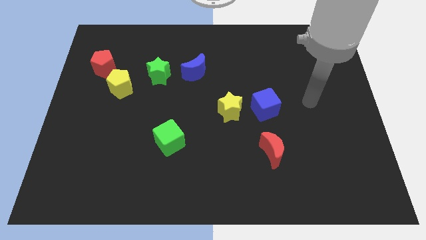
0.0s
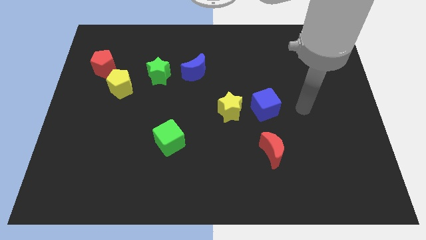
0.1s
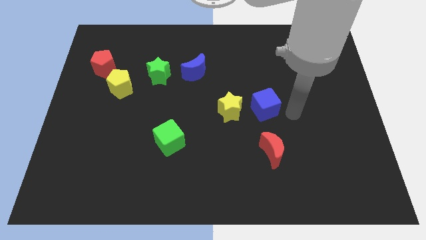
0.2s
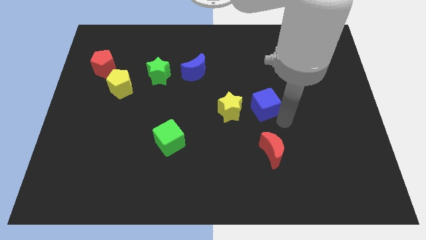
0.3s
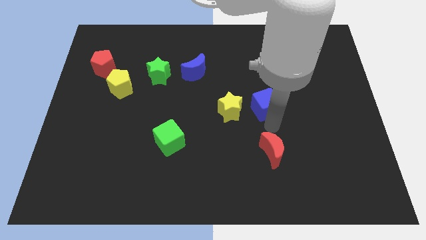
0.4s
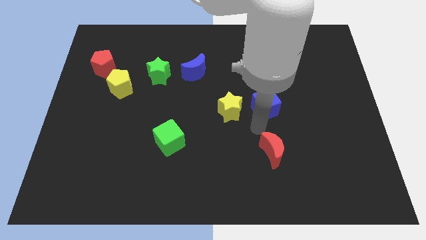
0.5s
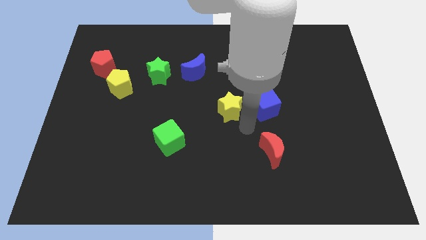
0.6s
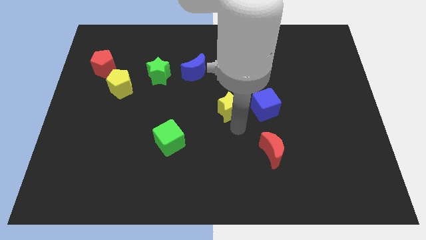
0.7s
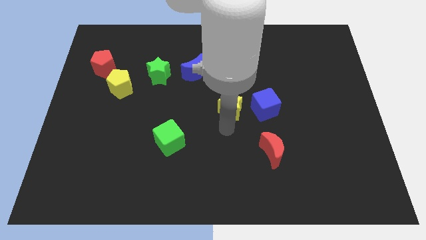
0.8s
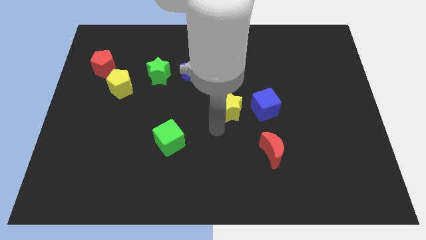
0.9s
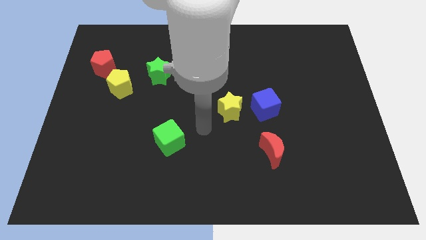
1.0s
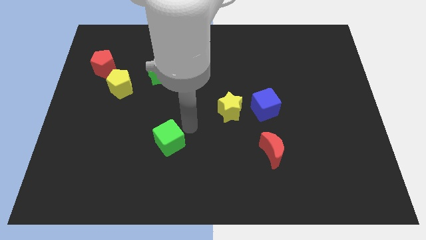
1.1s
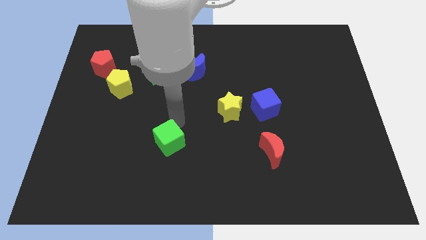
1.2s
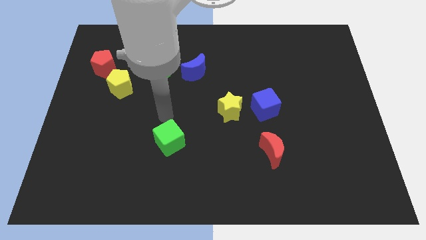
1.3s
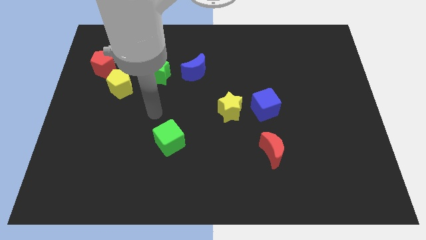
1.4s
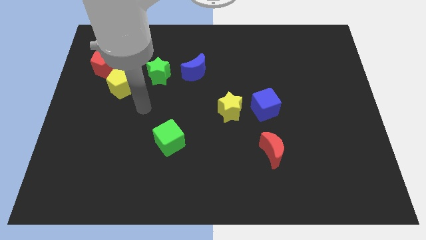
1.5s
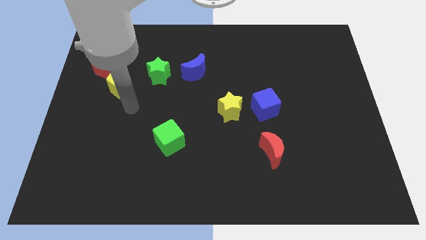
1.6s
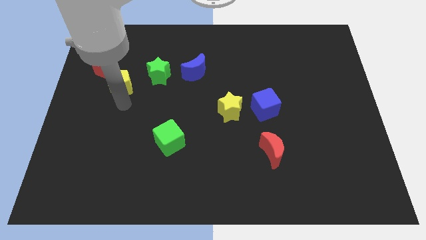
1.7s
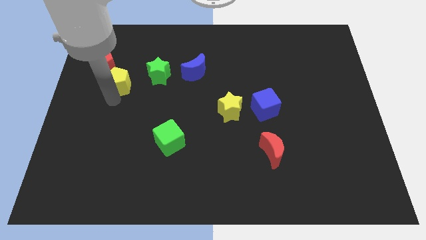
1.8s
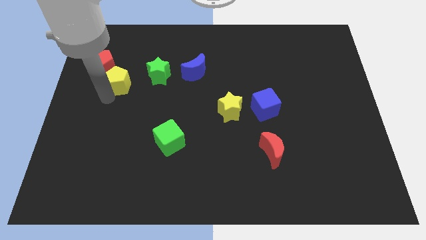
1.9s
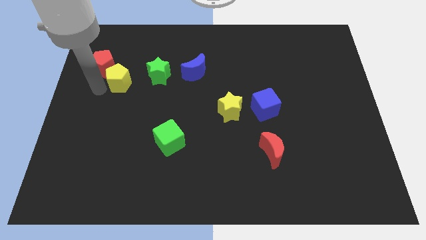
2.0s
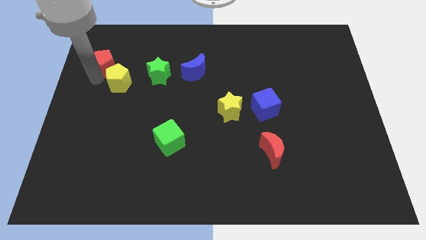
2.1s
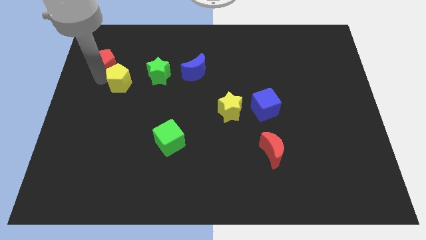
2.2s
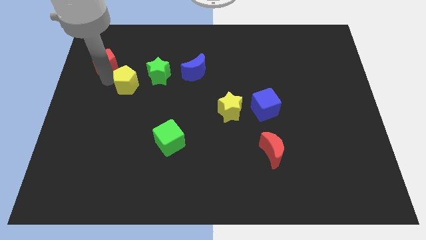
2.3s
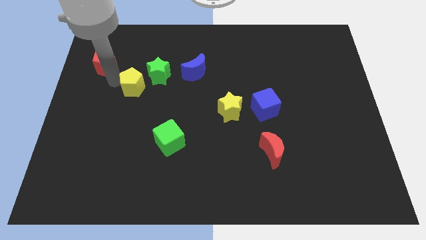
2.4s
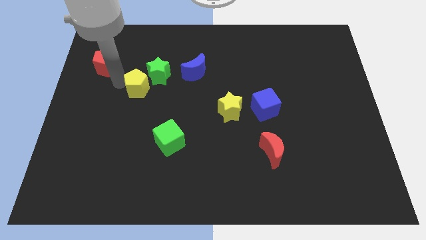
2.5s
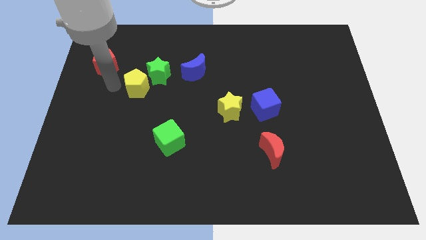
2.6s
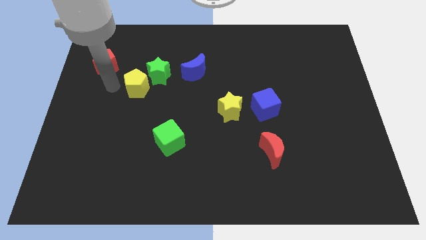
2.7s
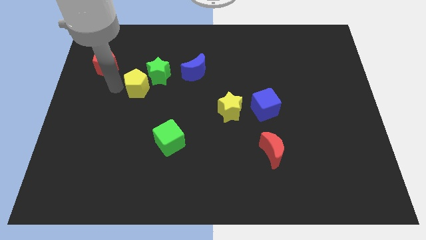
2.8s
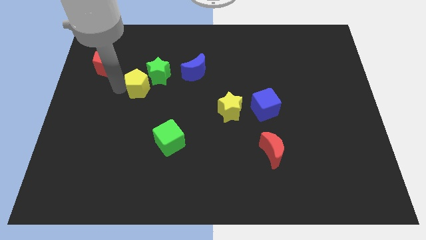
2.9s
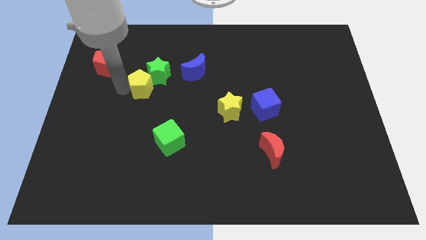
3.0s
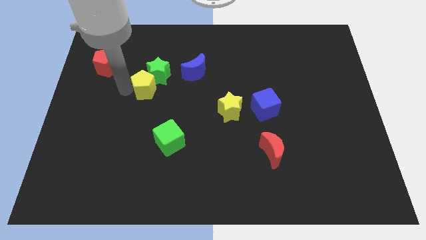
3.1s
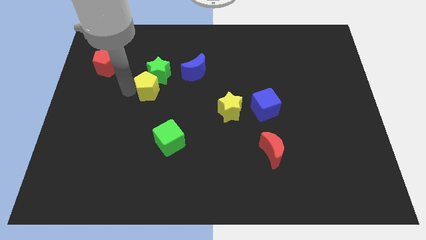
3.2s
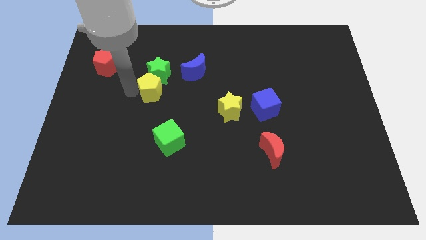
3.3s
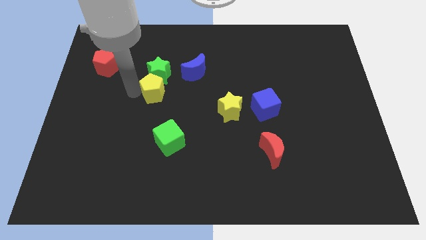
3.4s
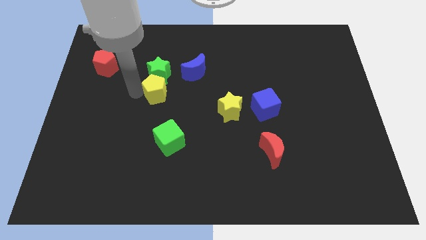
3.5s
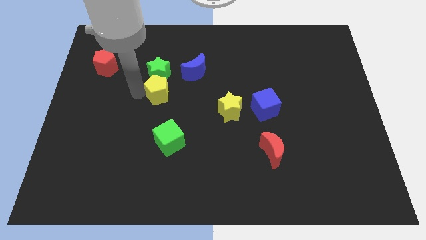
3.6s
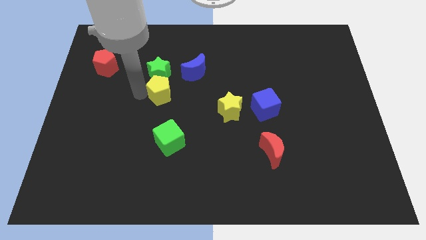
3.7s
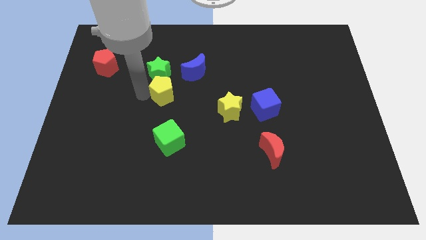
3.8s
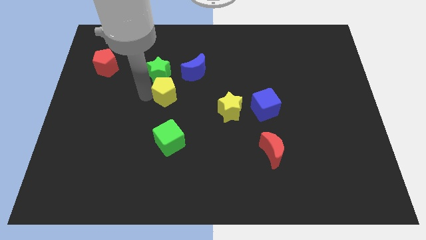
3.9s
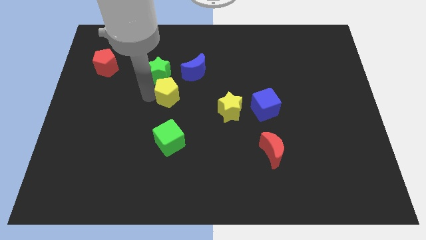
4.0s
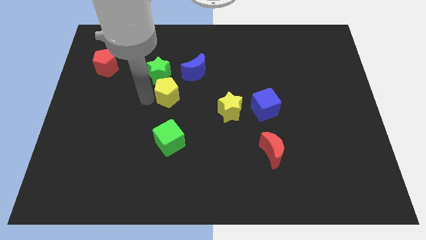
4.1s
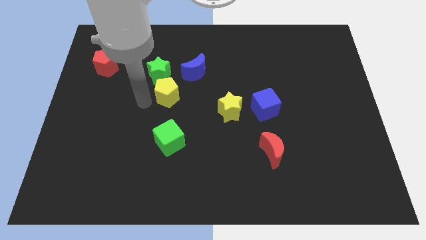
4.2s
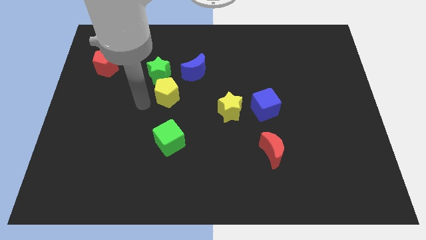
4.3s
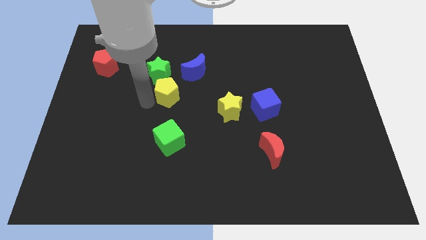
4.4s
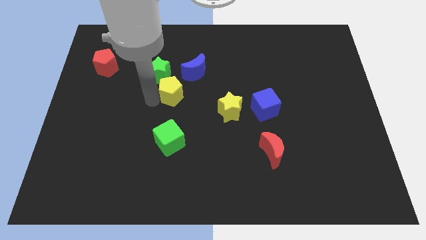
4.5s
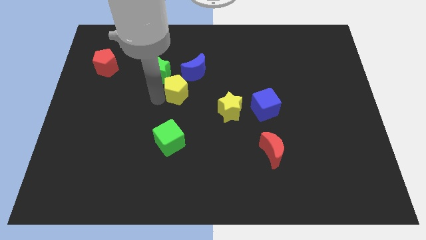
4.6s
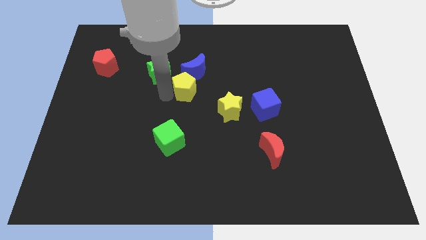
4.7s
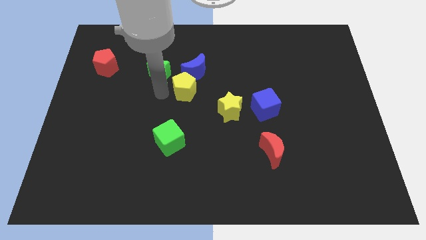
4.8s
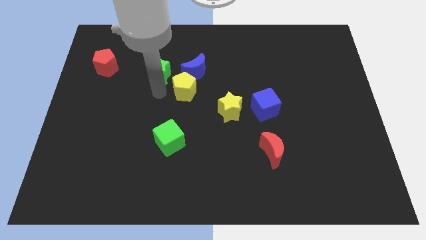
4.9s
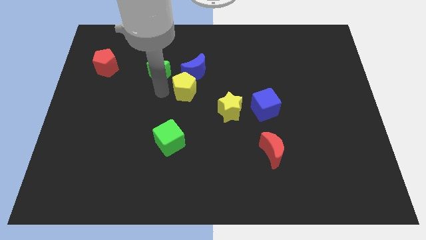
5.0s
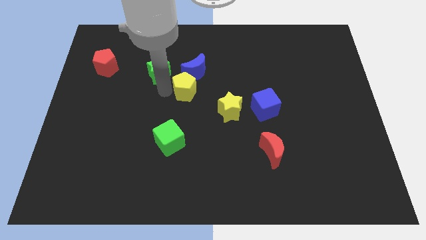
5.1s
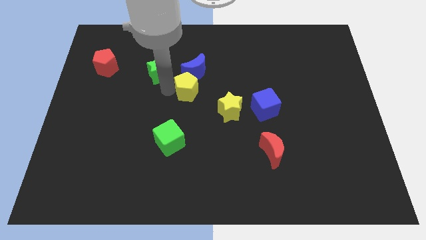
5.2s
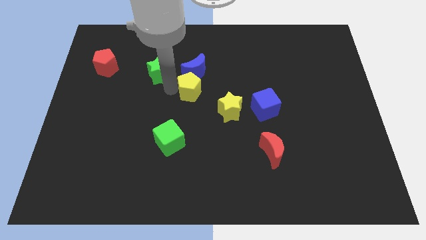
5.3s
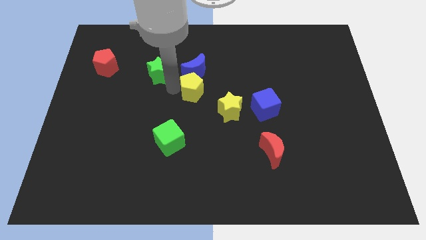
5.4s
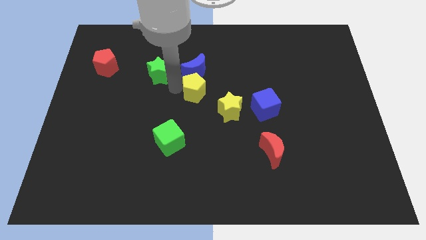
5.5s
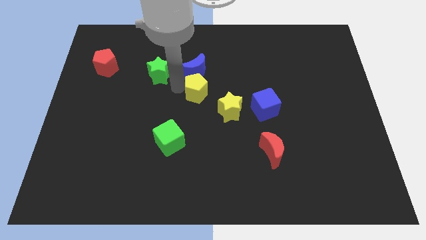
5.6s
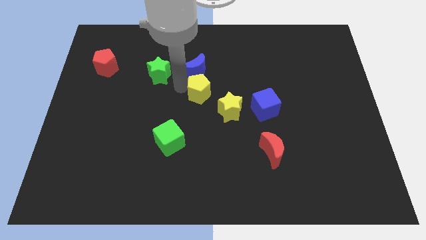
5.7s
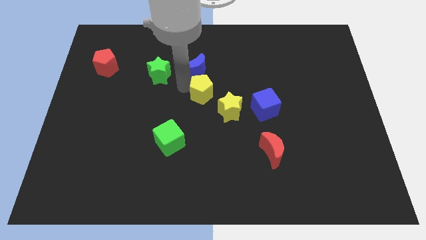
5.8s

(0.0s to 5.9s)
push the yellow pentagon to the right

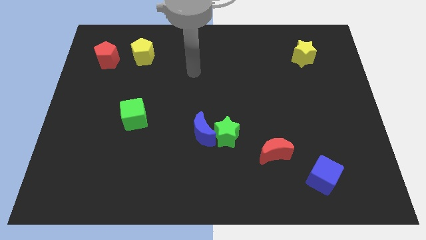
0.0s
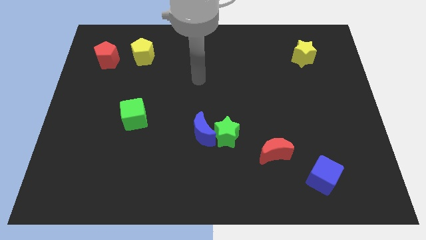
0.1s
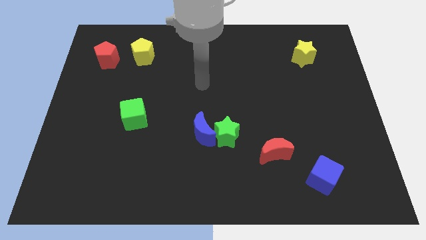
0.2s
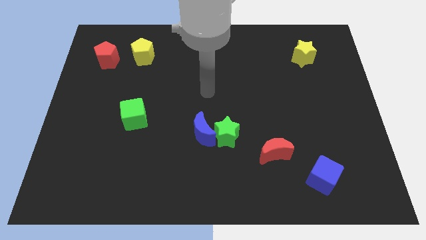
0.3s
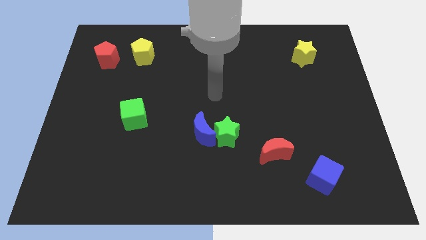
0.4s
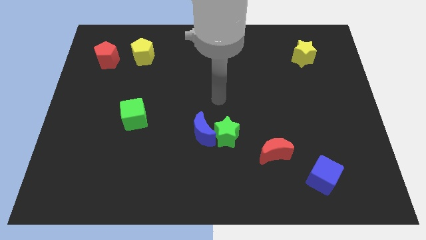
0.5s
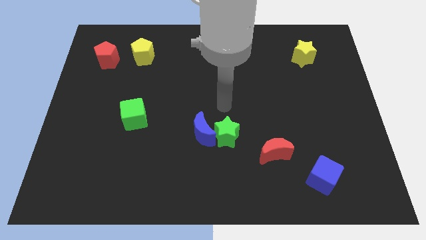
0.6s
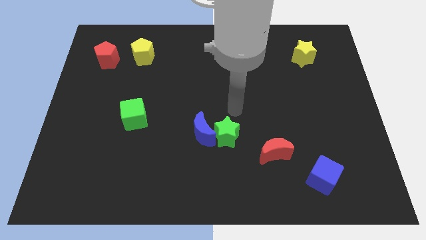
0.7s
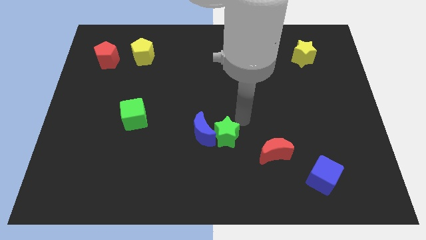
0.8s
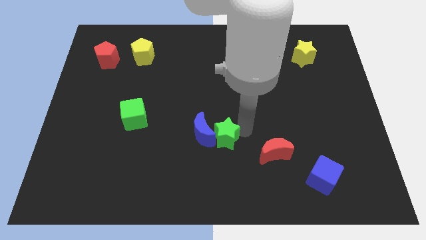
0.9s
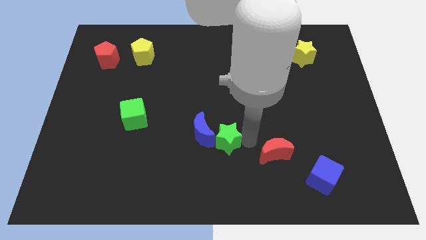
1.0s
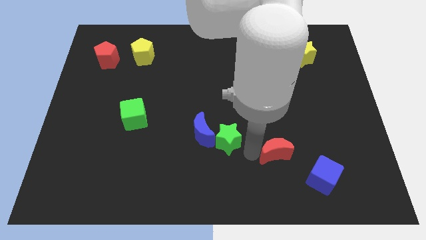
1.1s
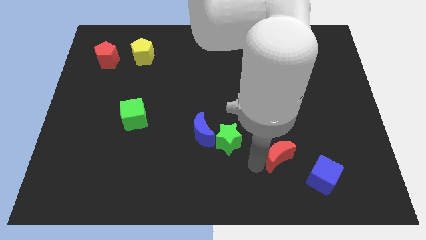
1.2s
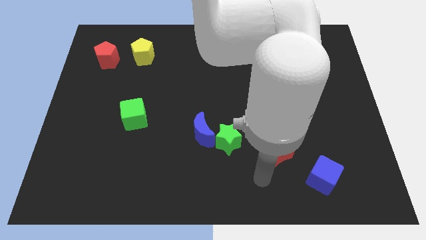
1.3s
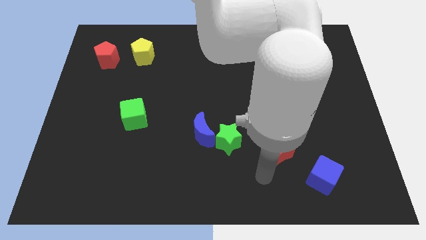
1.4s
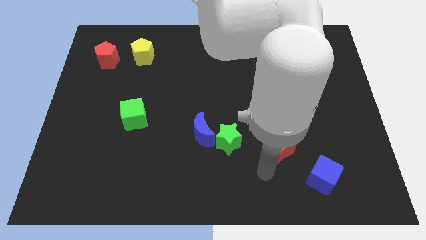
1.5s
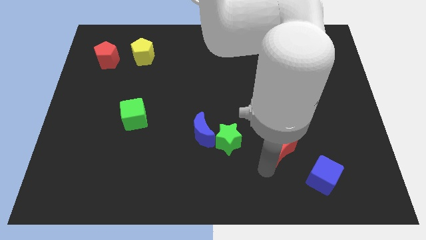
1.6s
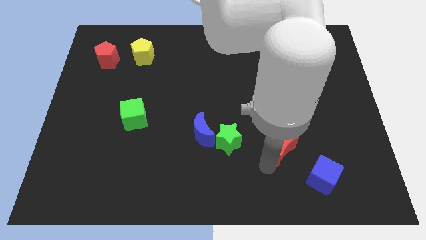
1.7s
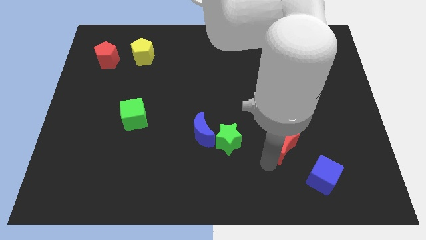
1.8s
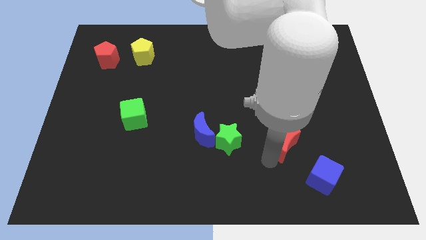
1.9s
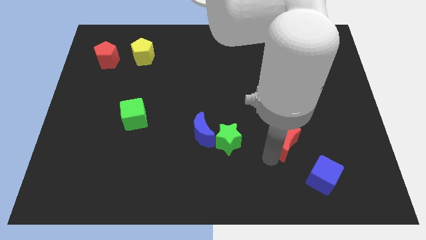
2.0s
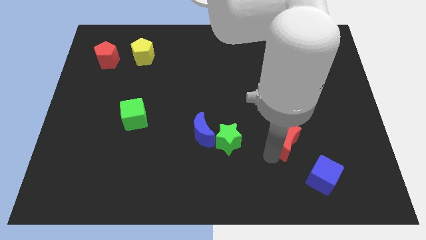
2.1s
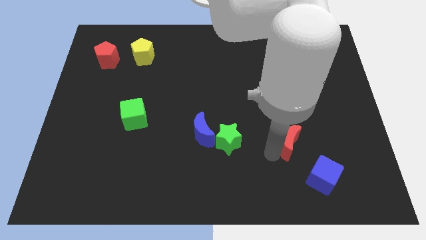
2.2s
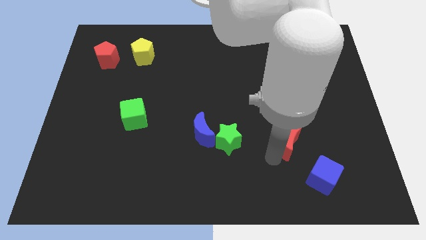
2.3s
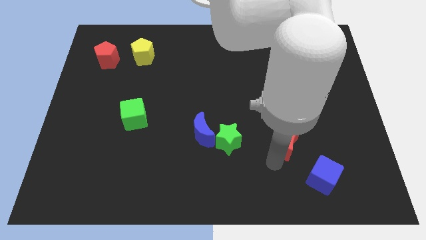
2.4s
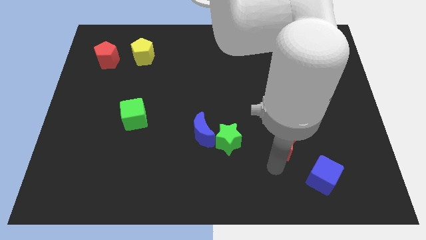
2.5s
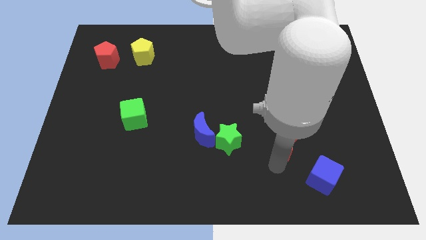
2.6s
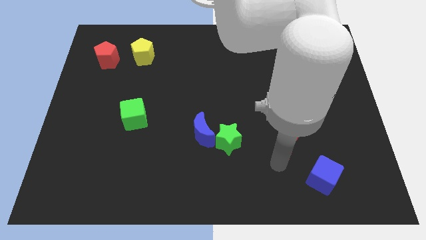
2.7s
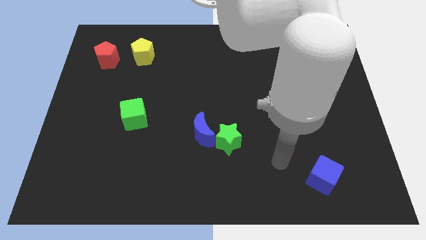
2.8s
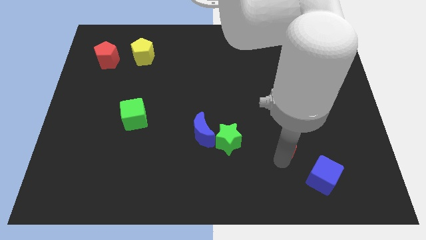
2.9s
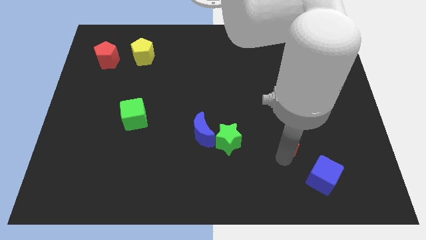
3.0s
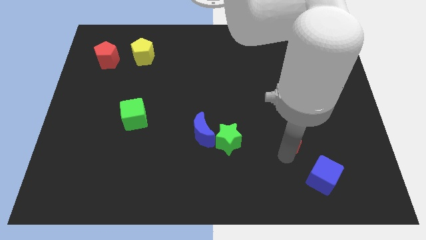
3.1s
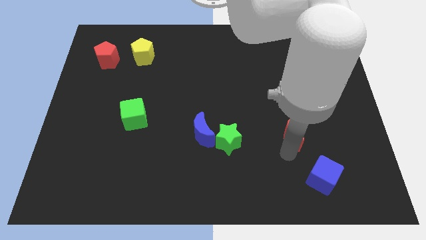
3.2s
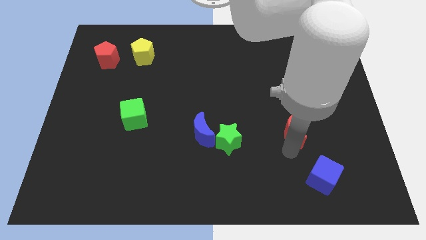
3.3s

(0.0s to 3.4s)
slide the red moon diagonally up and to the right a bit
